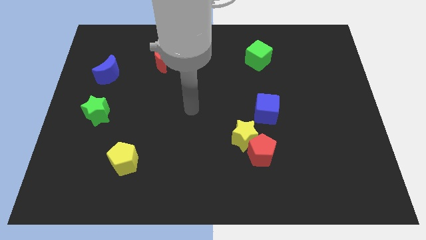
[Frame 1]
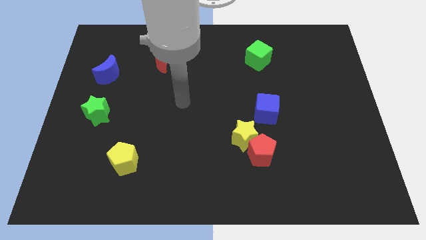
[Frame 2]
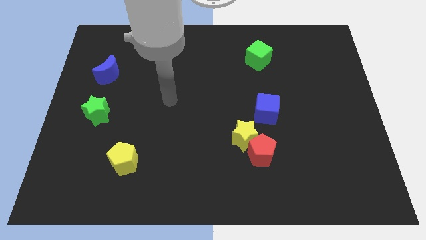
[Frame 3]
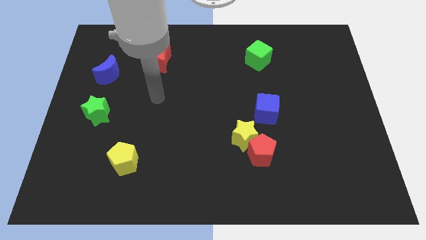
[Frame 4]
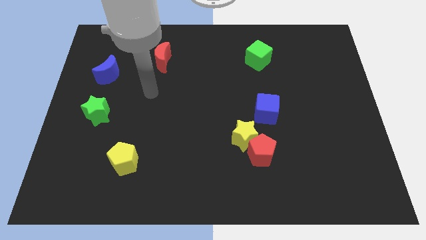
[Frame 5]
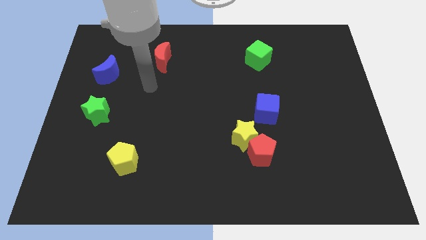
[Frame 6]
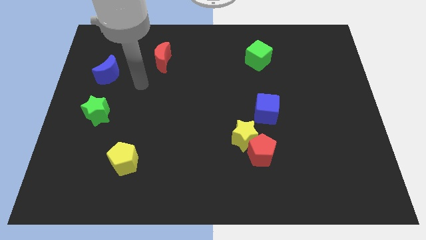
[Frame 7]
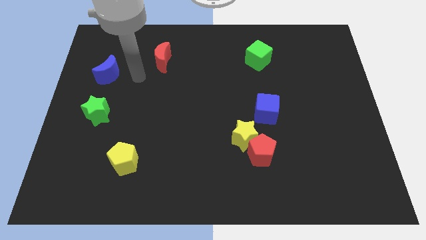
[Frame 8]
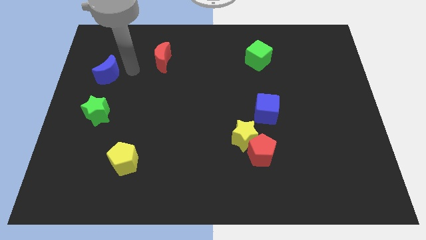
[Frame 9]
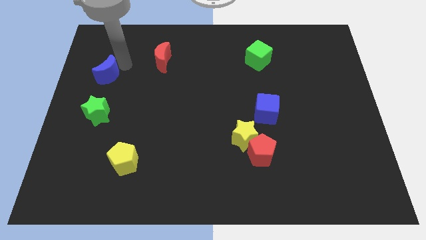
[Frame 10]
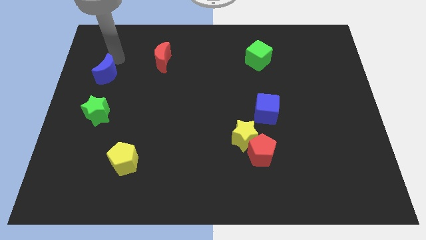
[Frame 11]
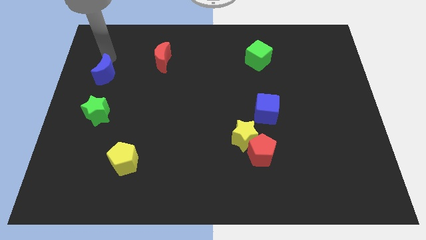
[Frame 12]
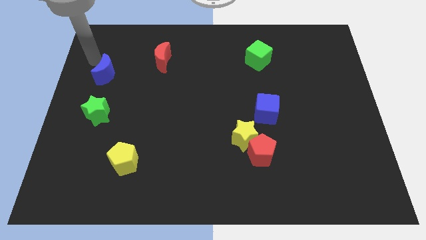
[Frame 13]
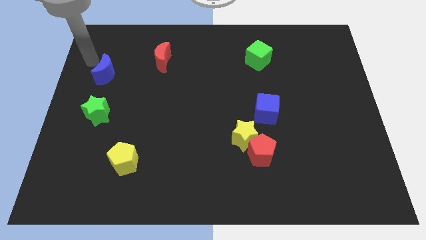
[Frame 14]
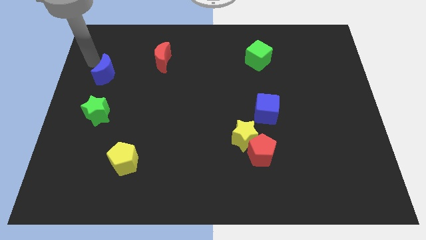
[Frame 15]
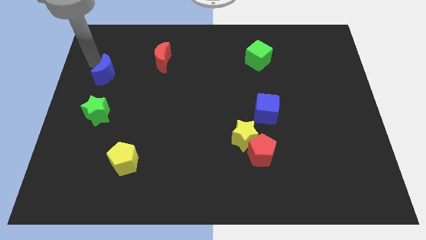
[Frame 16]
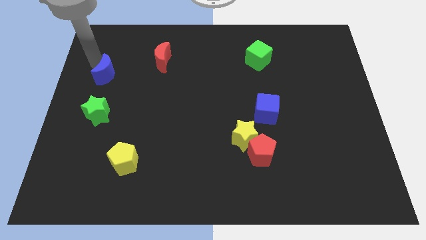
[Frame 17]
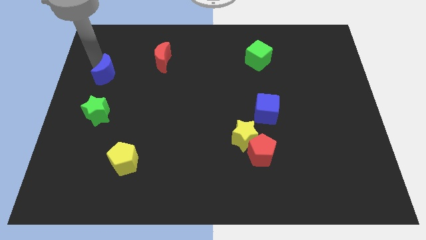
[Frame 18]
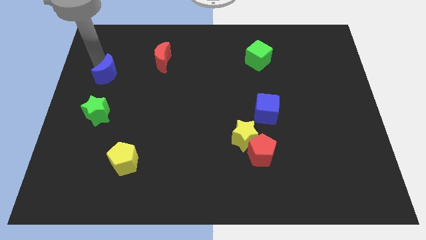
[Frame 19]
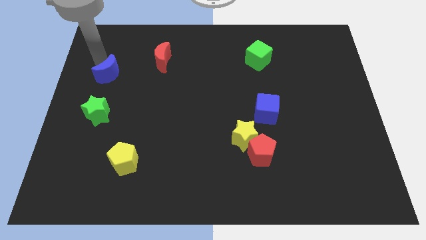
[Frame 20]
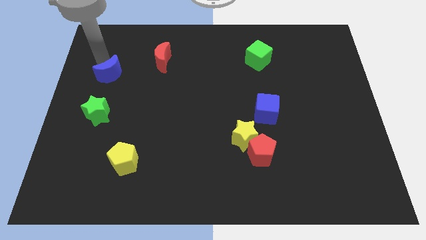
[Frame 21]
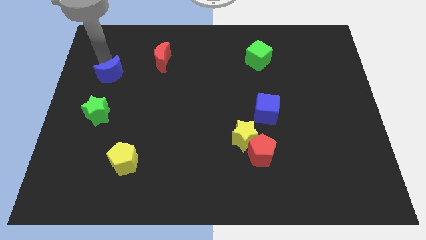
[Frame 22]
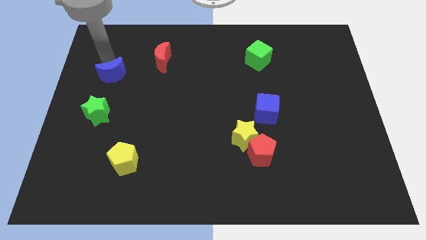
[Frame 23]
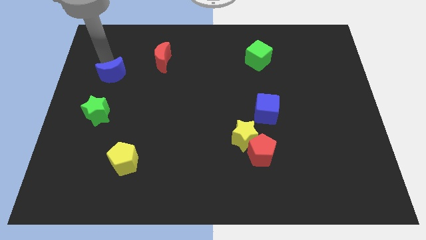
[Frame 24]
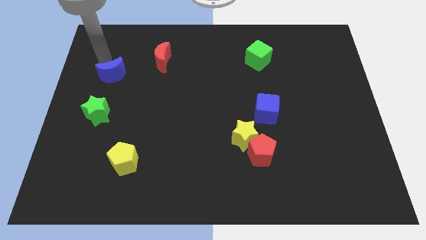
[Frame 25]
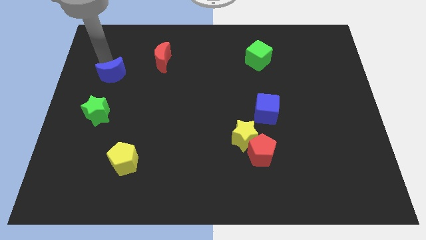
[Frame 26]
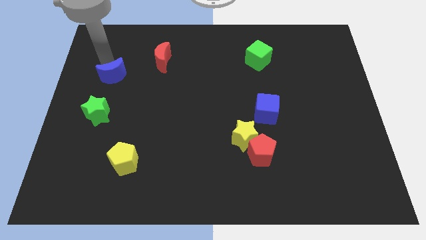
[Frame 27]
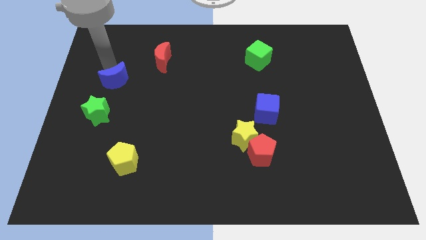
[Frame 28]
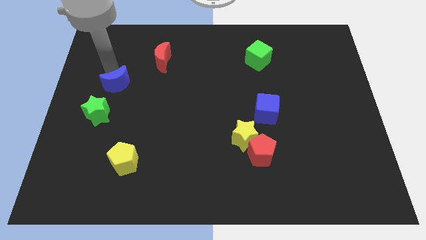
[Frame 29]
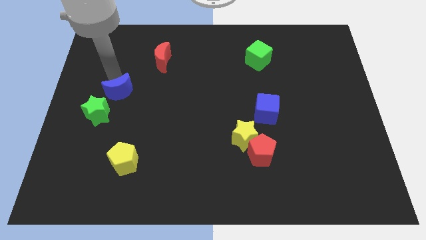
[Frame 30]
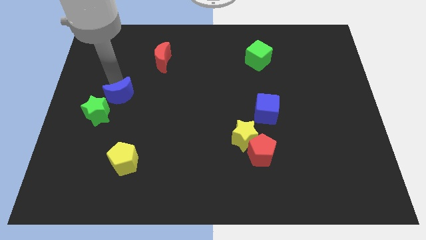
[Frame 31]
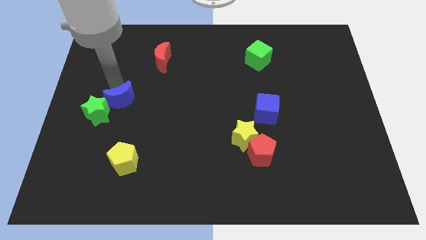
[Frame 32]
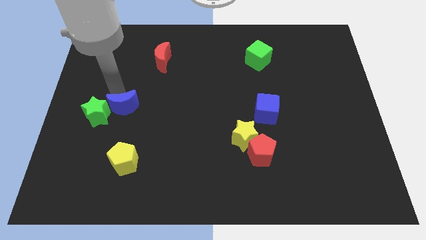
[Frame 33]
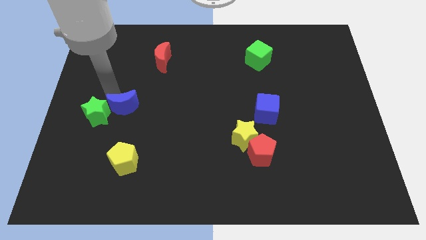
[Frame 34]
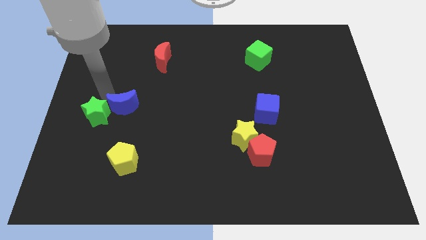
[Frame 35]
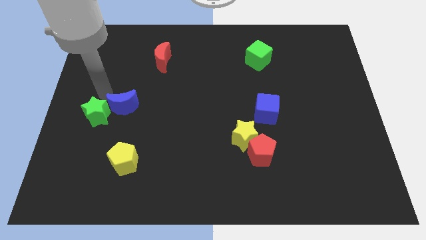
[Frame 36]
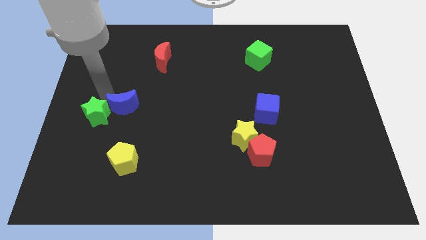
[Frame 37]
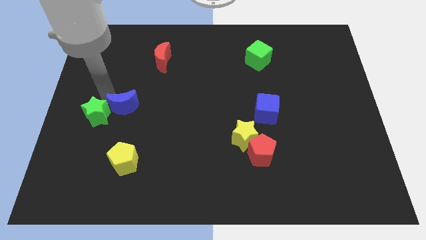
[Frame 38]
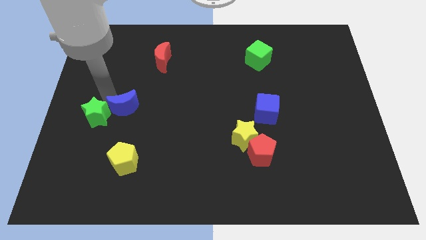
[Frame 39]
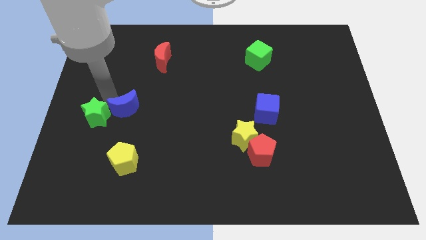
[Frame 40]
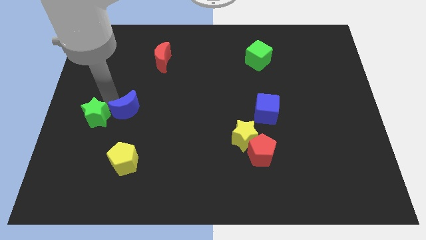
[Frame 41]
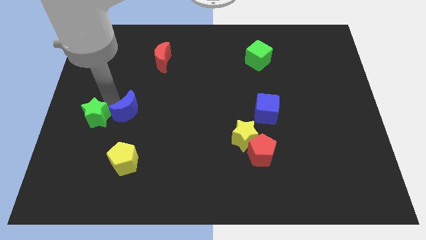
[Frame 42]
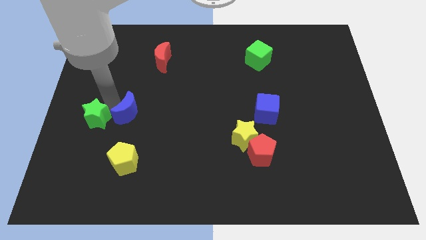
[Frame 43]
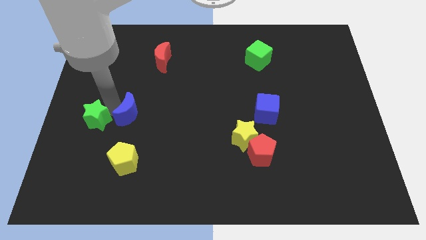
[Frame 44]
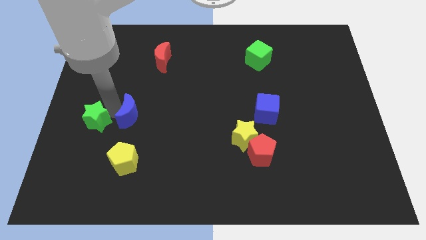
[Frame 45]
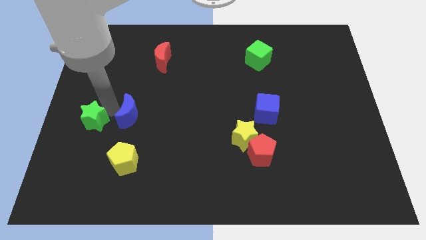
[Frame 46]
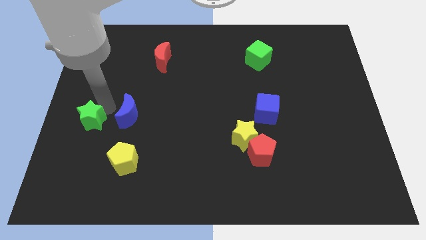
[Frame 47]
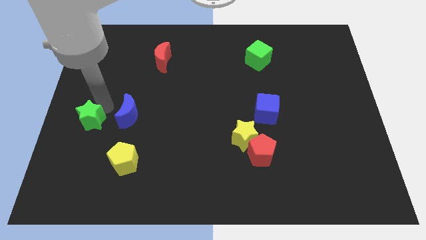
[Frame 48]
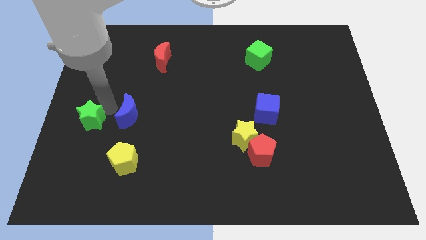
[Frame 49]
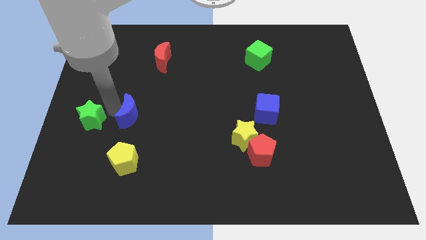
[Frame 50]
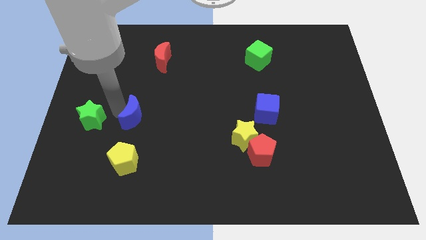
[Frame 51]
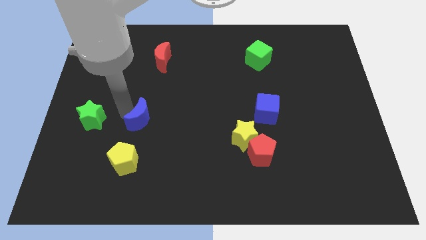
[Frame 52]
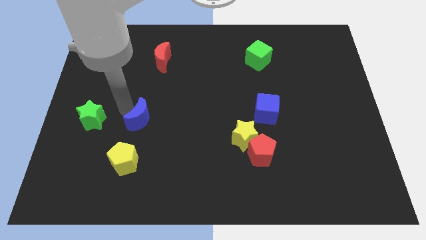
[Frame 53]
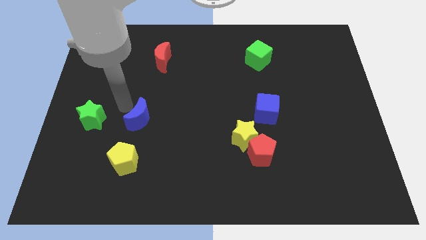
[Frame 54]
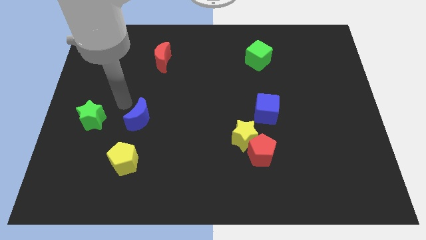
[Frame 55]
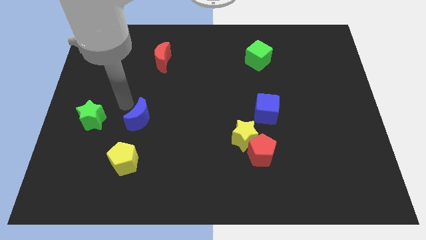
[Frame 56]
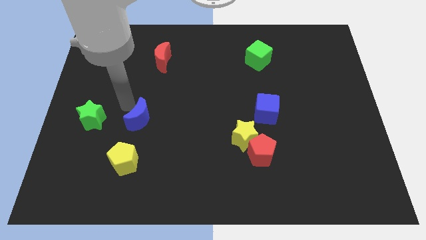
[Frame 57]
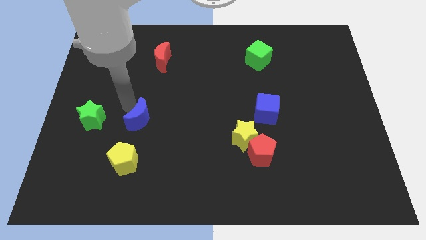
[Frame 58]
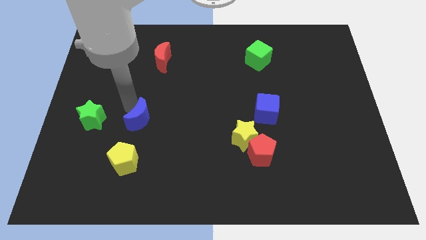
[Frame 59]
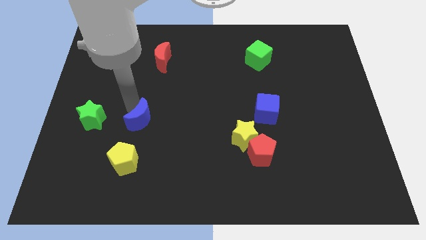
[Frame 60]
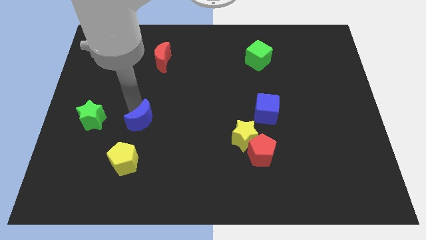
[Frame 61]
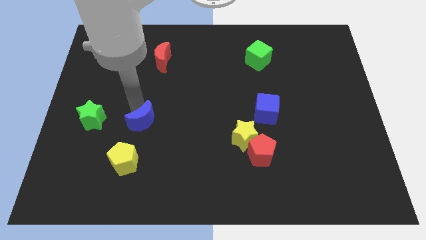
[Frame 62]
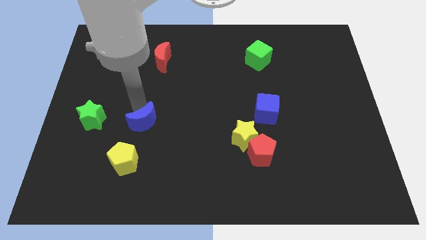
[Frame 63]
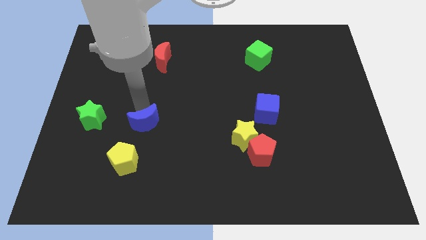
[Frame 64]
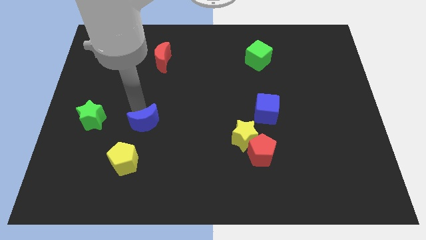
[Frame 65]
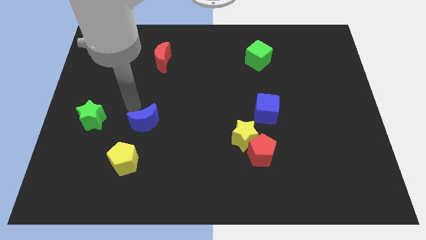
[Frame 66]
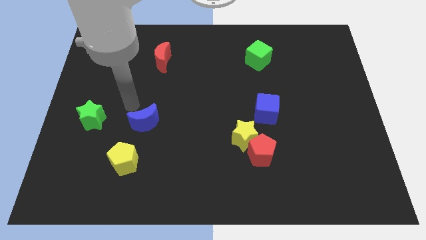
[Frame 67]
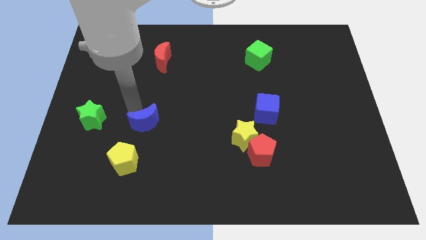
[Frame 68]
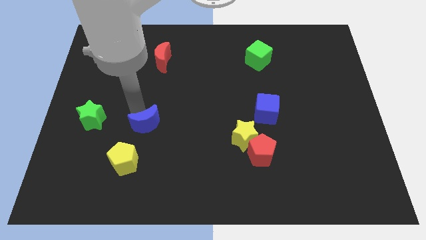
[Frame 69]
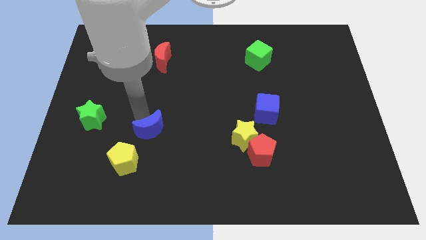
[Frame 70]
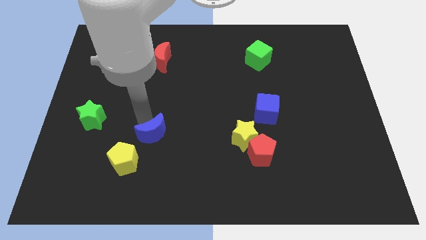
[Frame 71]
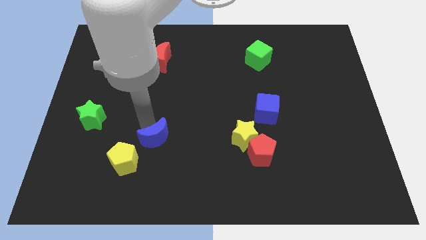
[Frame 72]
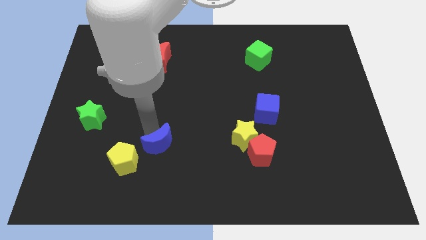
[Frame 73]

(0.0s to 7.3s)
put the blue moon right of the yellow pentagon
